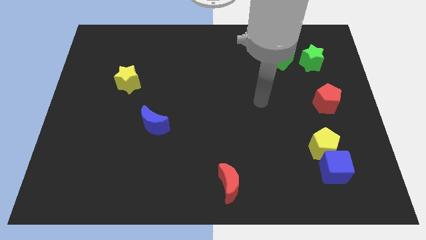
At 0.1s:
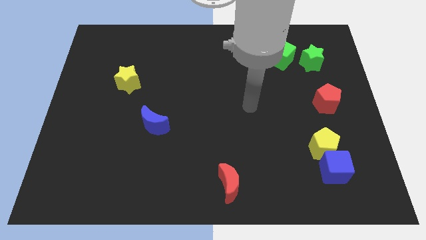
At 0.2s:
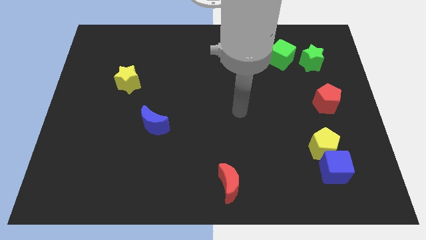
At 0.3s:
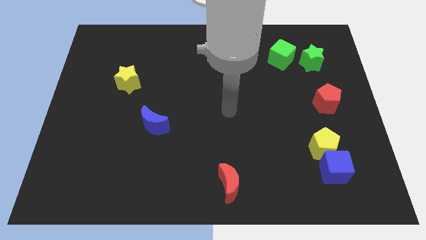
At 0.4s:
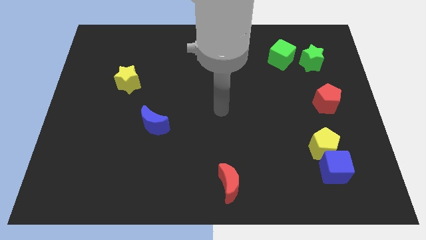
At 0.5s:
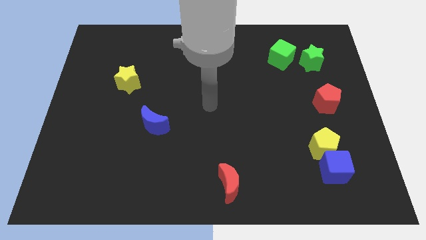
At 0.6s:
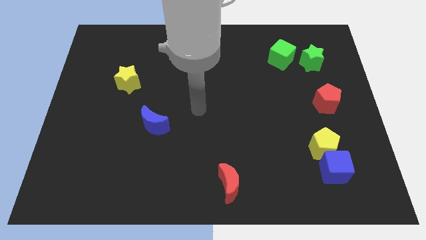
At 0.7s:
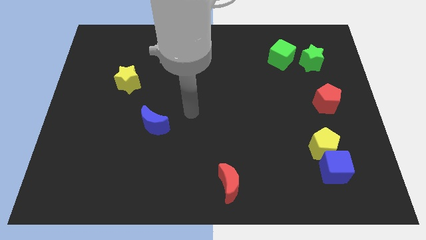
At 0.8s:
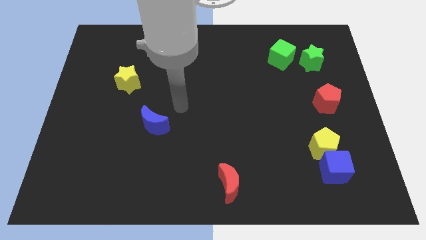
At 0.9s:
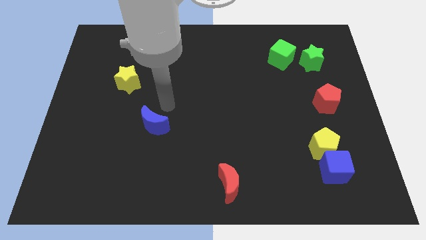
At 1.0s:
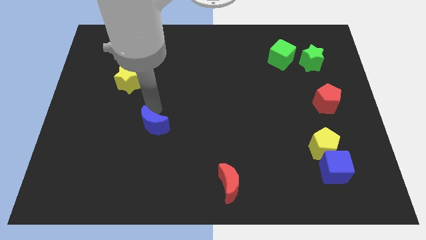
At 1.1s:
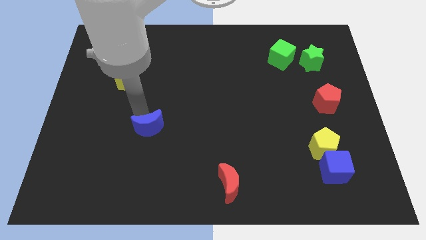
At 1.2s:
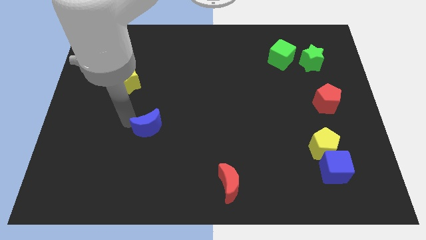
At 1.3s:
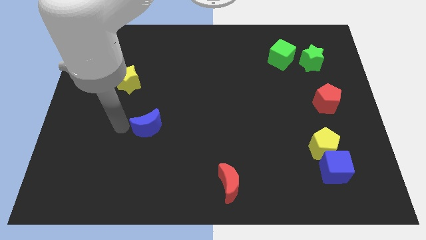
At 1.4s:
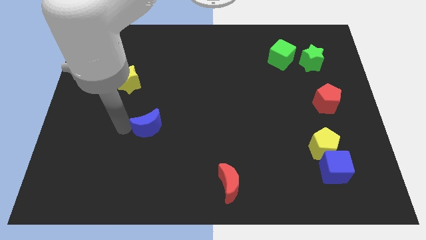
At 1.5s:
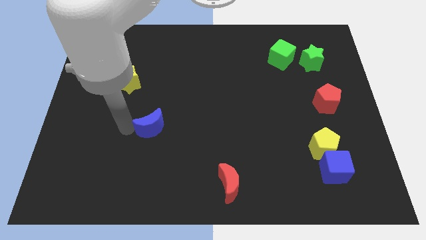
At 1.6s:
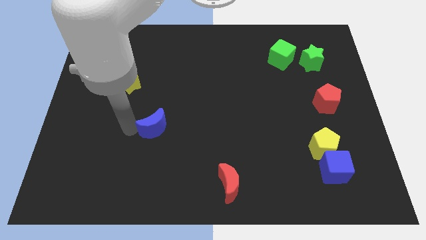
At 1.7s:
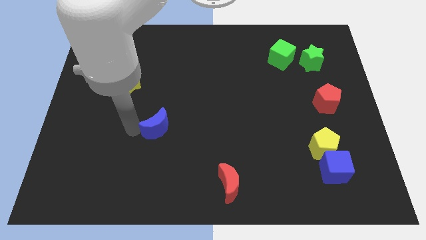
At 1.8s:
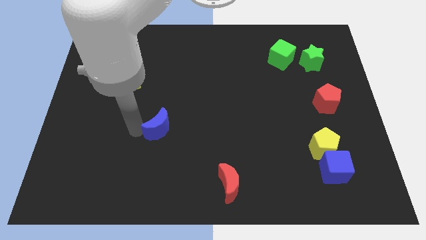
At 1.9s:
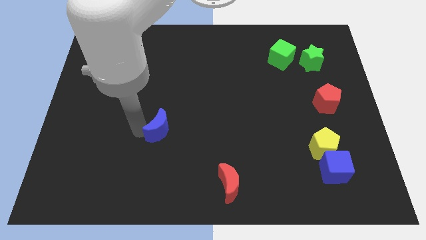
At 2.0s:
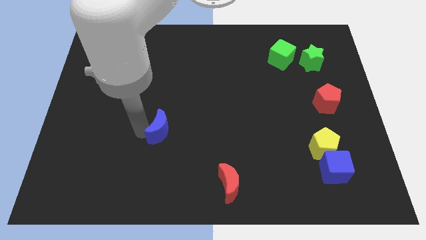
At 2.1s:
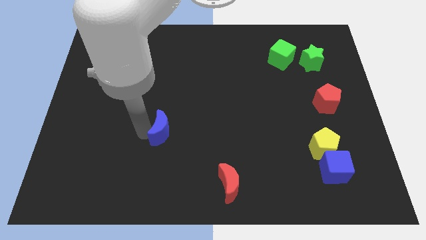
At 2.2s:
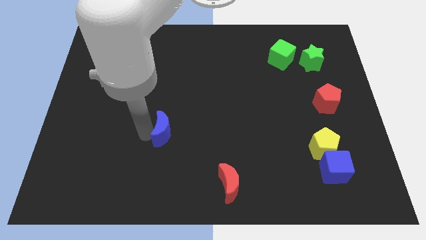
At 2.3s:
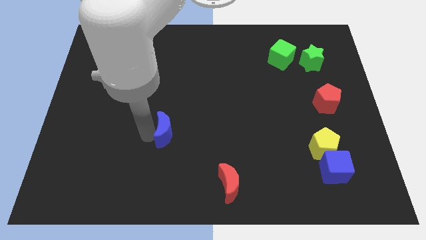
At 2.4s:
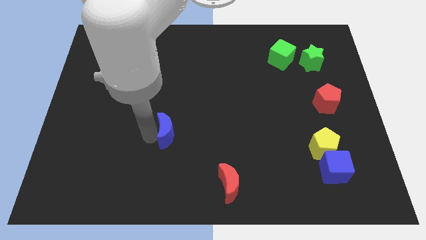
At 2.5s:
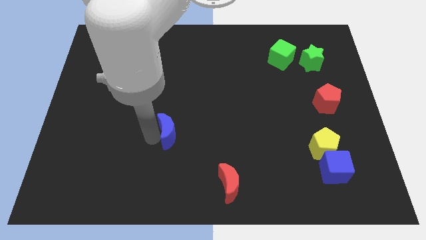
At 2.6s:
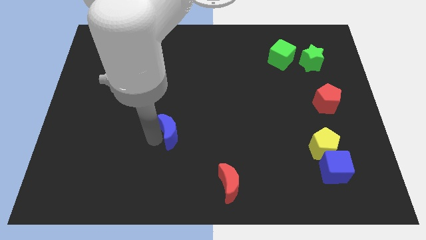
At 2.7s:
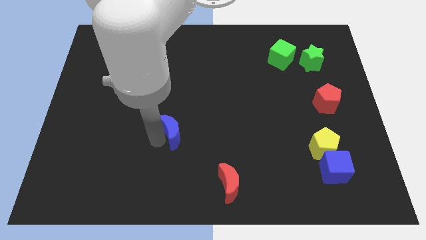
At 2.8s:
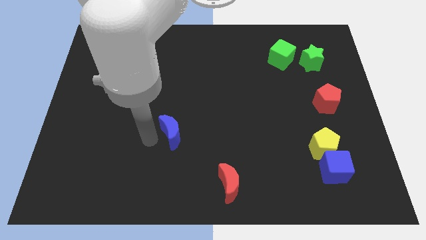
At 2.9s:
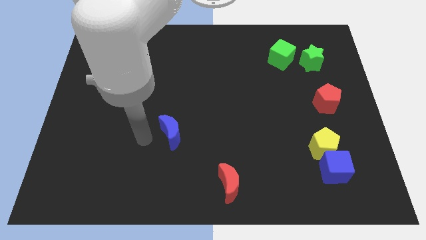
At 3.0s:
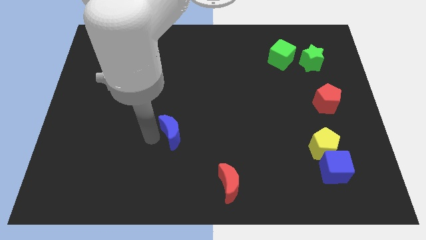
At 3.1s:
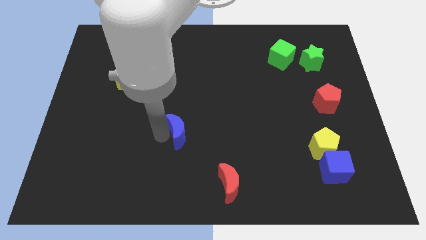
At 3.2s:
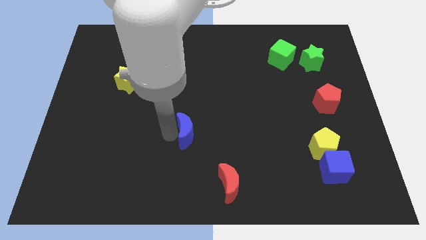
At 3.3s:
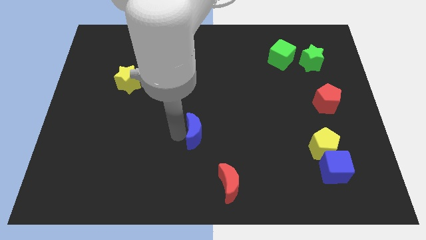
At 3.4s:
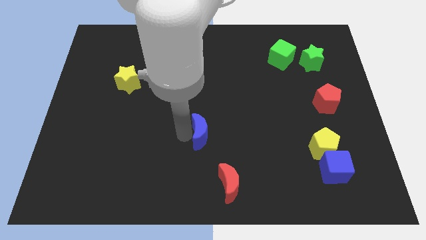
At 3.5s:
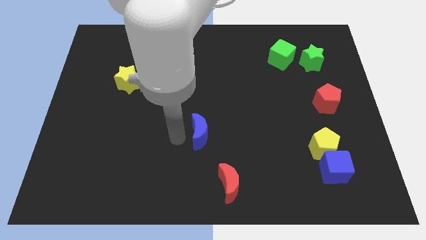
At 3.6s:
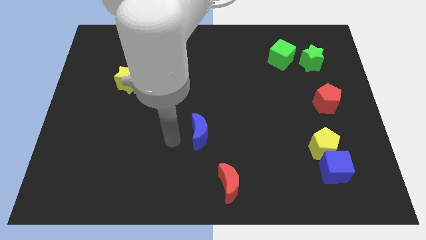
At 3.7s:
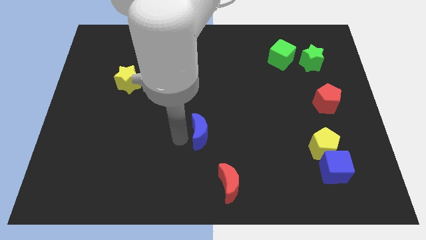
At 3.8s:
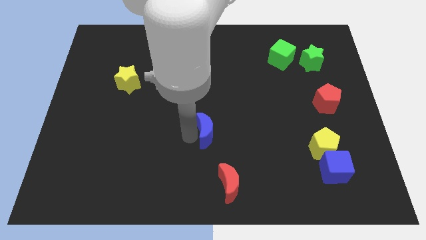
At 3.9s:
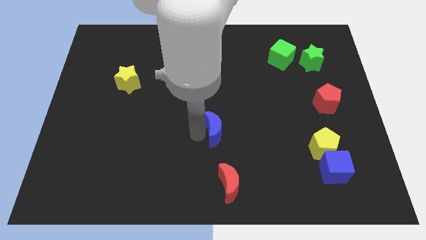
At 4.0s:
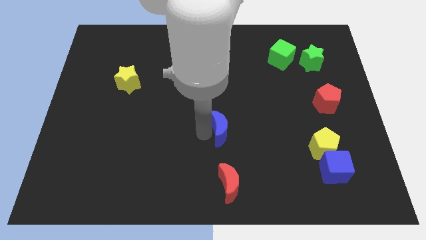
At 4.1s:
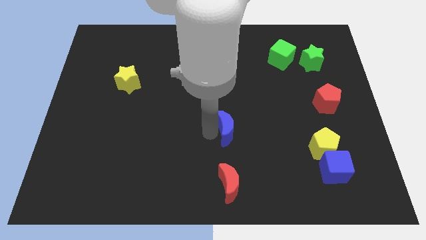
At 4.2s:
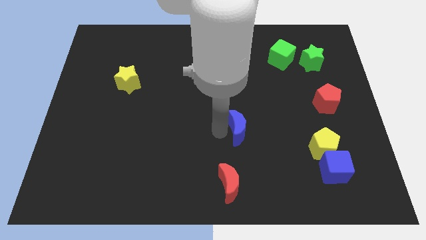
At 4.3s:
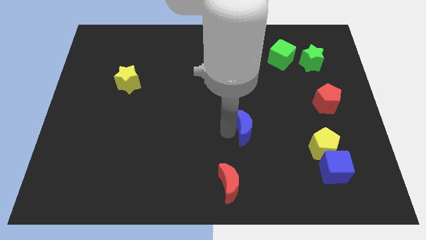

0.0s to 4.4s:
move the blue moon right

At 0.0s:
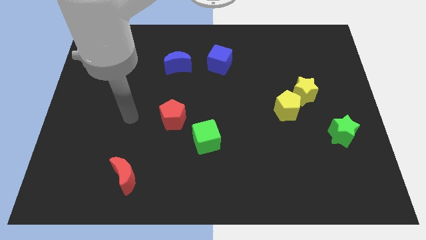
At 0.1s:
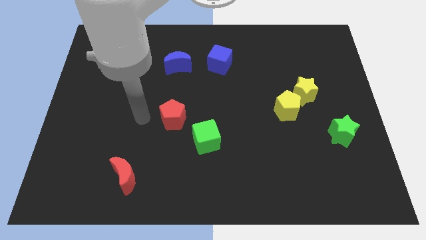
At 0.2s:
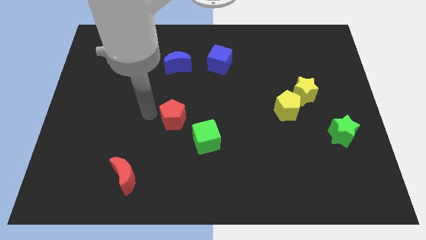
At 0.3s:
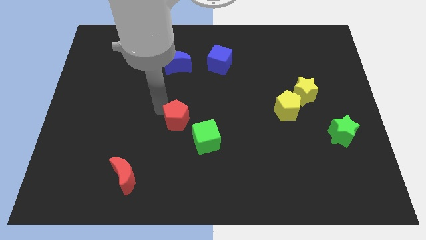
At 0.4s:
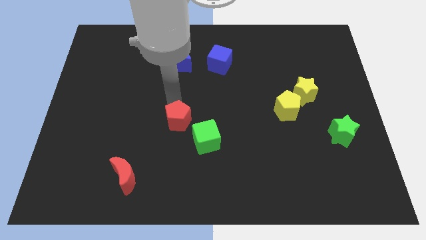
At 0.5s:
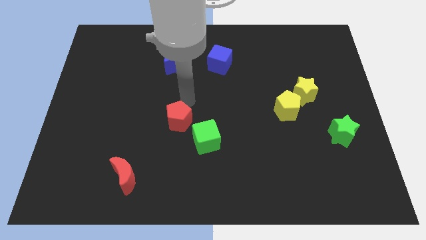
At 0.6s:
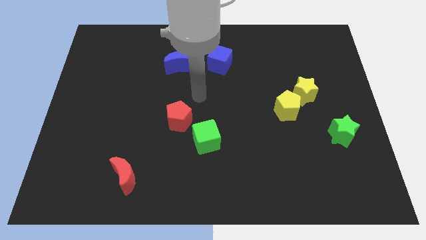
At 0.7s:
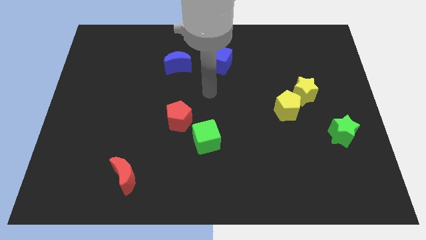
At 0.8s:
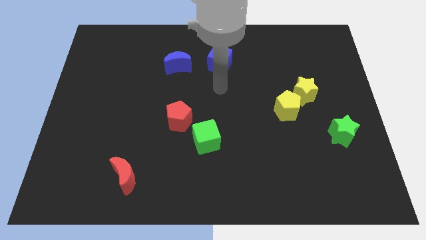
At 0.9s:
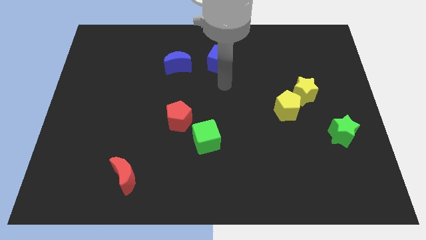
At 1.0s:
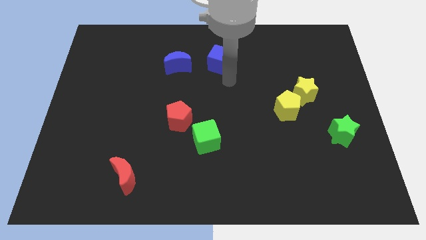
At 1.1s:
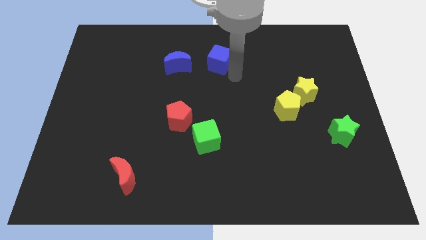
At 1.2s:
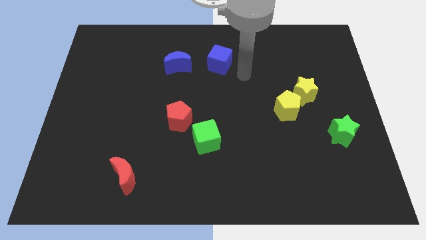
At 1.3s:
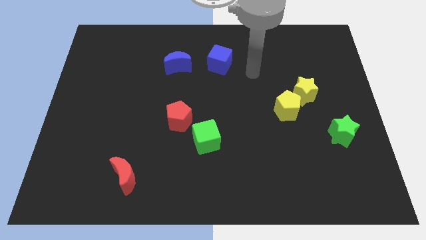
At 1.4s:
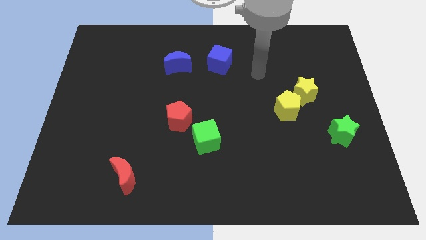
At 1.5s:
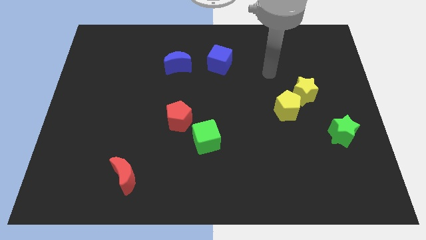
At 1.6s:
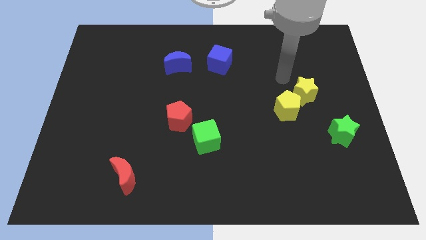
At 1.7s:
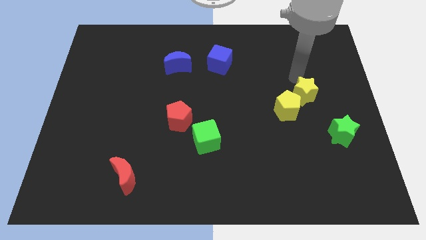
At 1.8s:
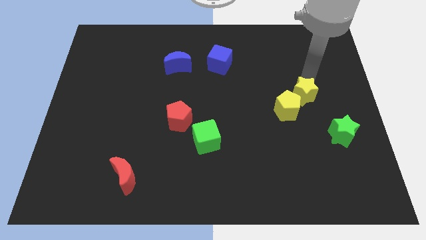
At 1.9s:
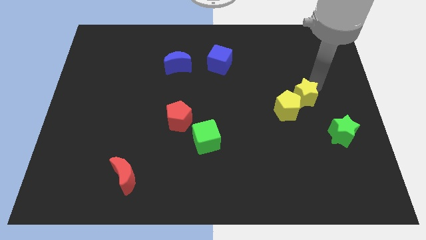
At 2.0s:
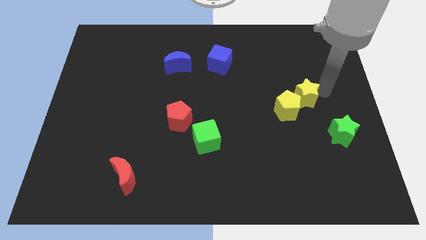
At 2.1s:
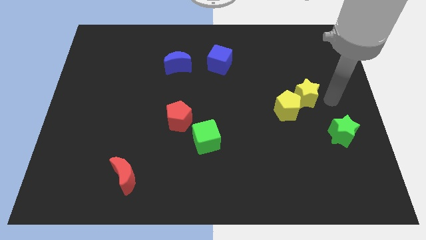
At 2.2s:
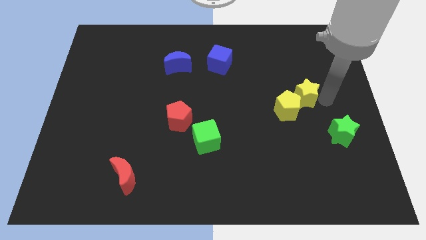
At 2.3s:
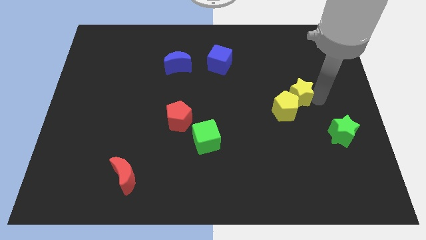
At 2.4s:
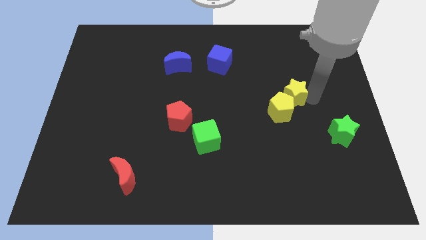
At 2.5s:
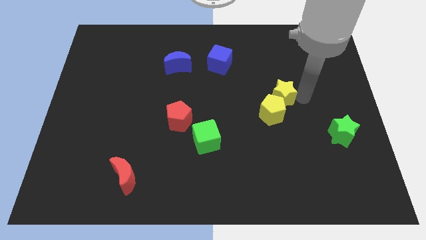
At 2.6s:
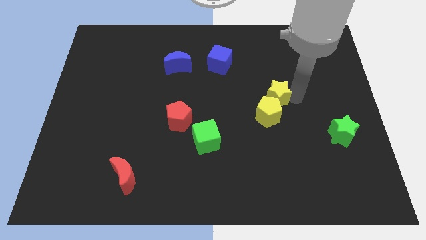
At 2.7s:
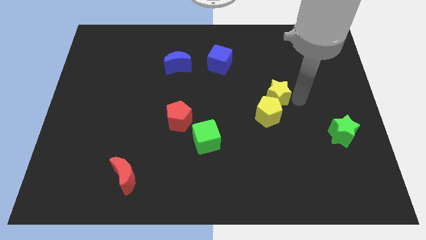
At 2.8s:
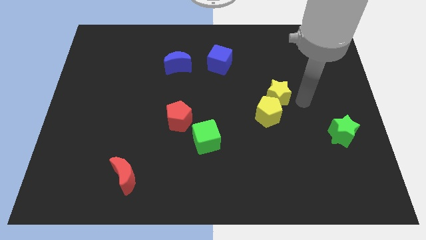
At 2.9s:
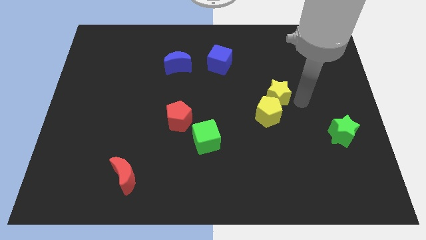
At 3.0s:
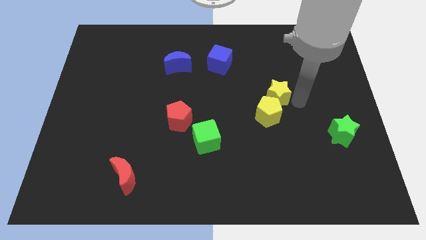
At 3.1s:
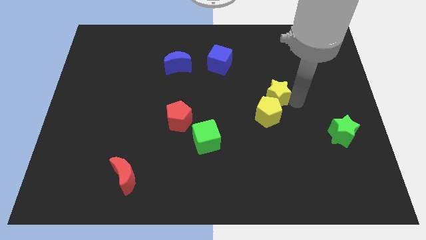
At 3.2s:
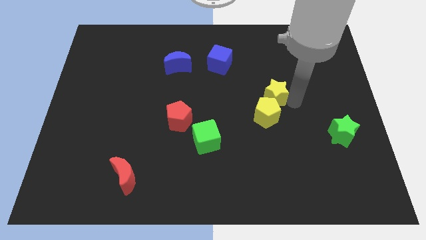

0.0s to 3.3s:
slide the yellow star a little to the left

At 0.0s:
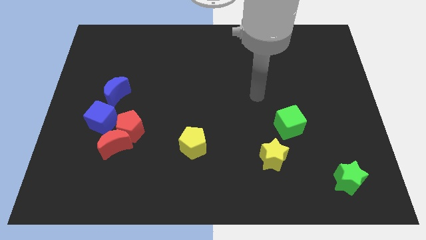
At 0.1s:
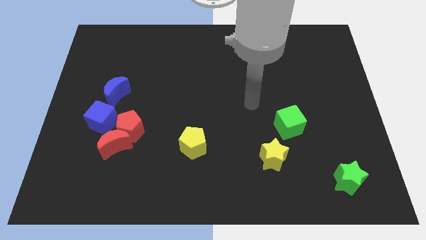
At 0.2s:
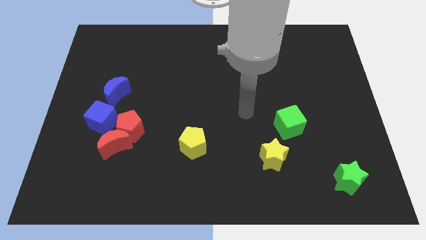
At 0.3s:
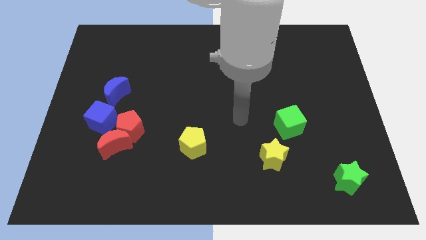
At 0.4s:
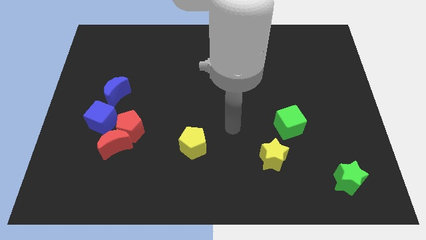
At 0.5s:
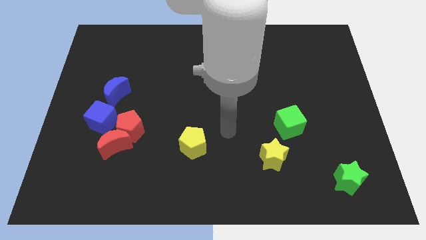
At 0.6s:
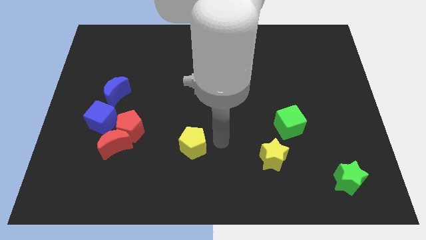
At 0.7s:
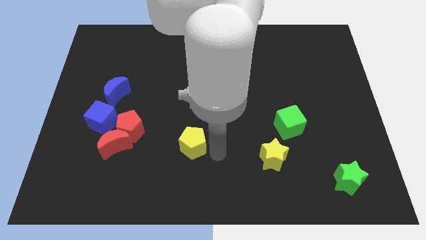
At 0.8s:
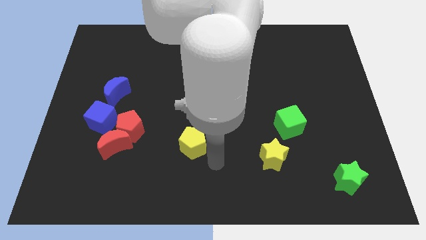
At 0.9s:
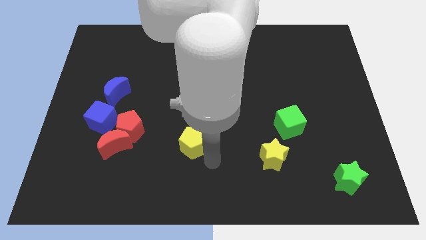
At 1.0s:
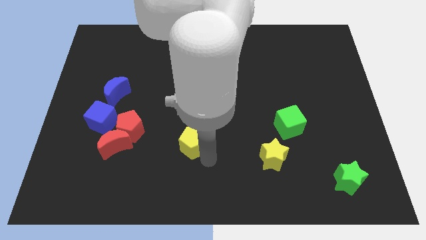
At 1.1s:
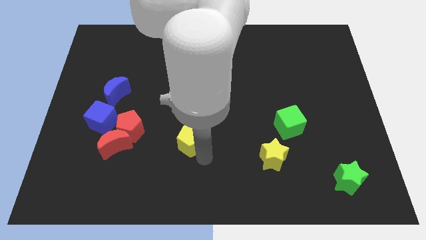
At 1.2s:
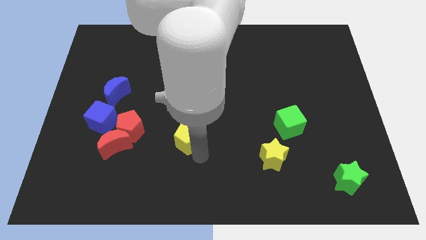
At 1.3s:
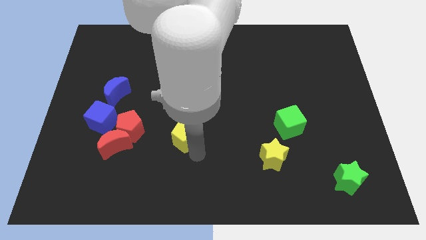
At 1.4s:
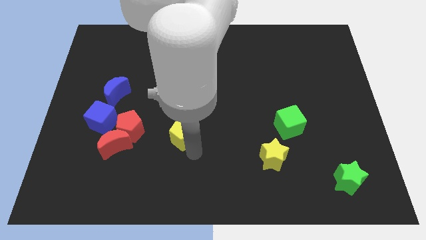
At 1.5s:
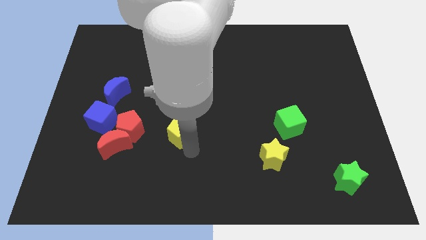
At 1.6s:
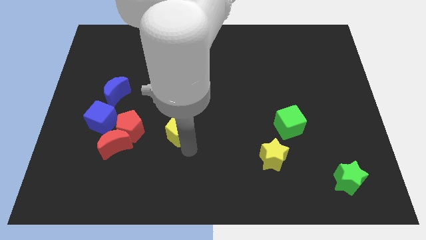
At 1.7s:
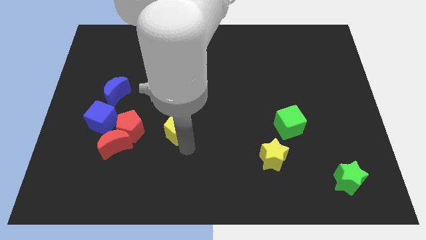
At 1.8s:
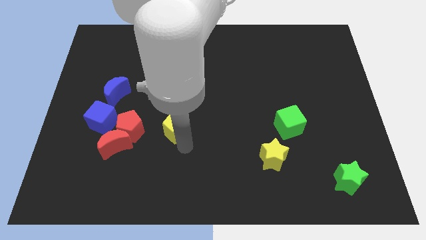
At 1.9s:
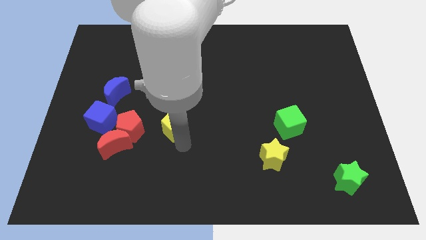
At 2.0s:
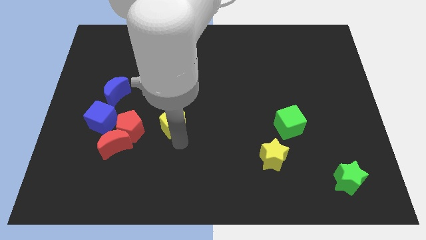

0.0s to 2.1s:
slightly move the yellow pentagon up and then to the left
